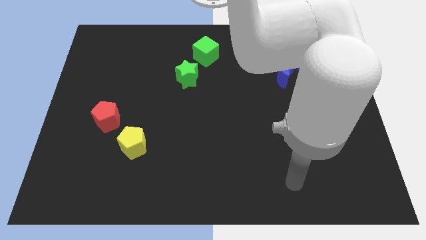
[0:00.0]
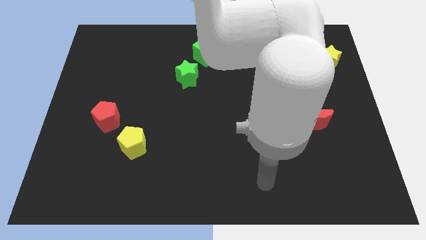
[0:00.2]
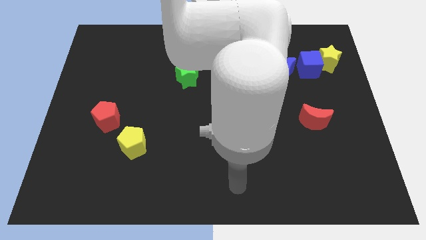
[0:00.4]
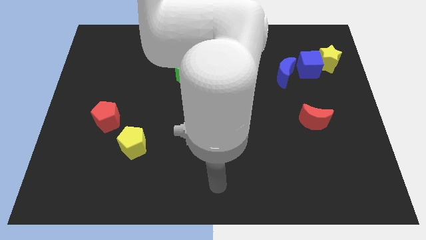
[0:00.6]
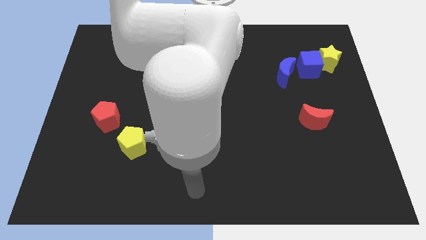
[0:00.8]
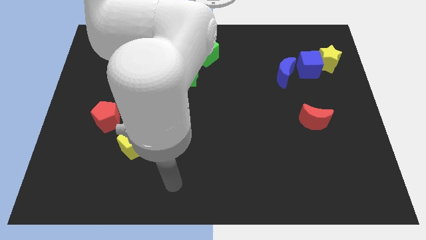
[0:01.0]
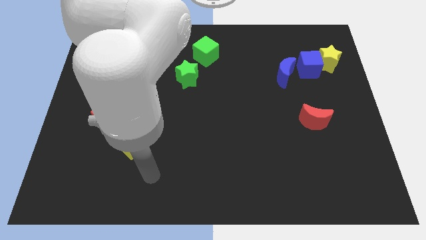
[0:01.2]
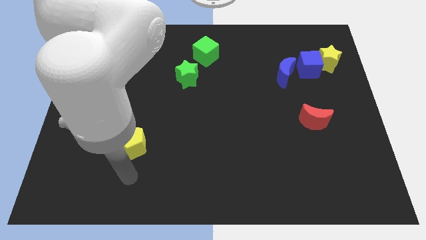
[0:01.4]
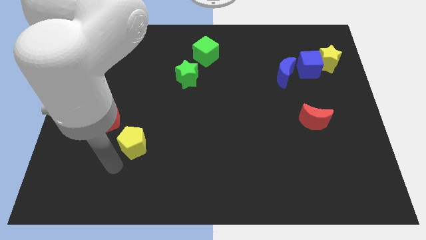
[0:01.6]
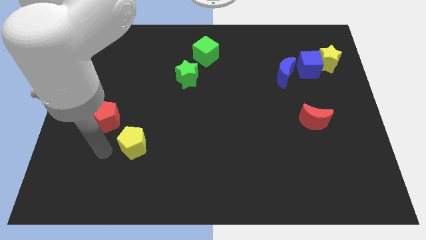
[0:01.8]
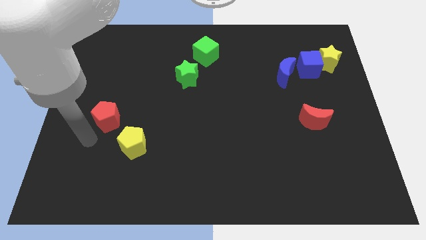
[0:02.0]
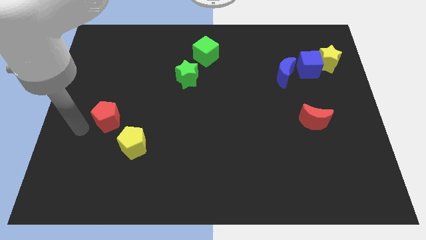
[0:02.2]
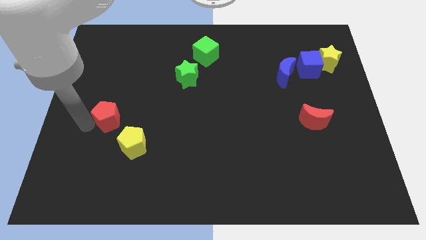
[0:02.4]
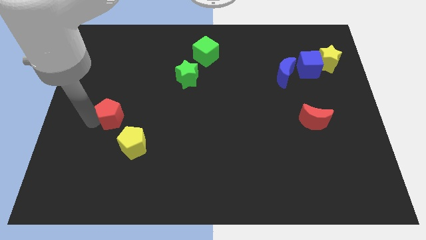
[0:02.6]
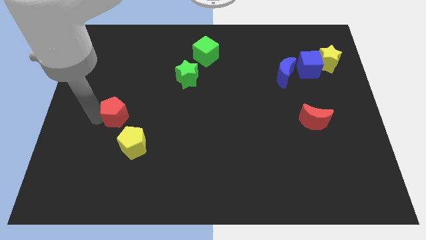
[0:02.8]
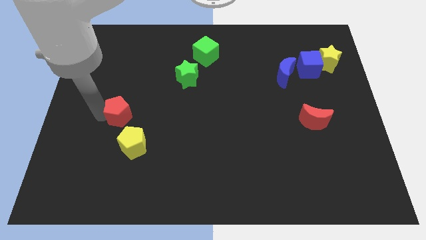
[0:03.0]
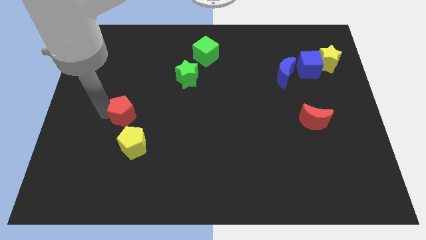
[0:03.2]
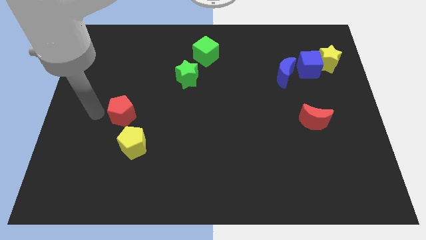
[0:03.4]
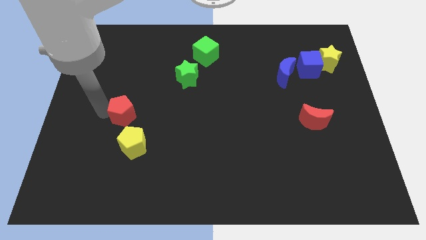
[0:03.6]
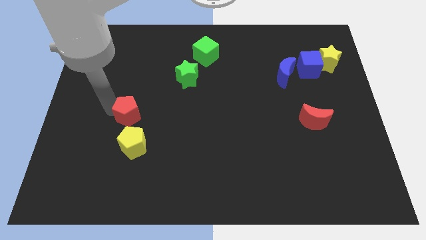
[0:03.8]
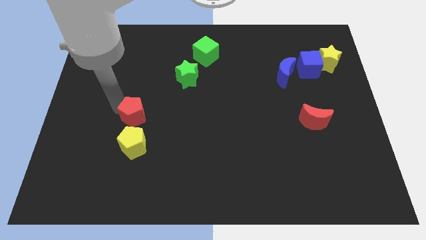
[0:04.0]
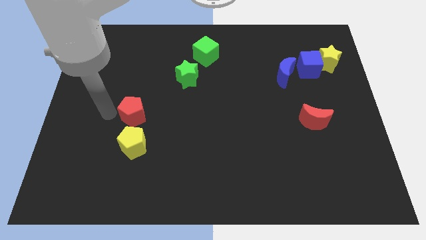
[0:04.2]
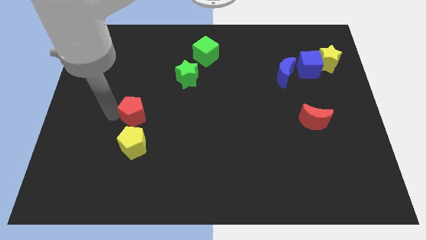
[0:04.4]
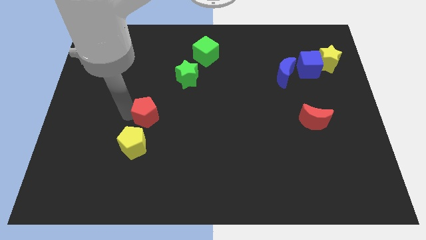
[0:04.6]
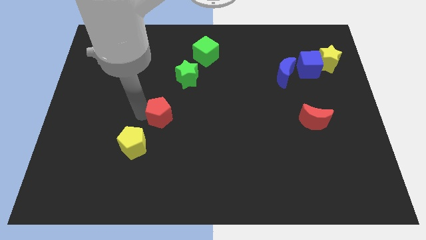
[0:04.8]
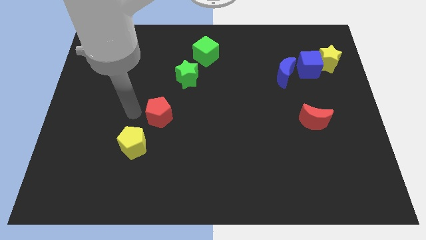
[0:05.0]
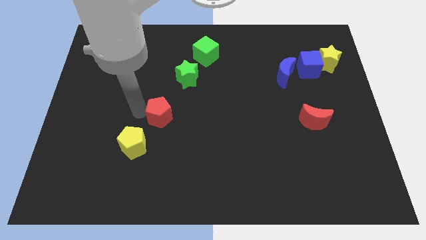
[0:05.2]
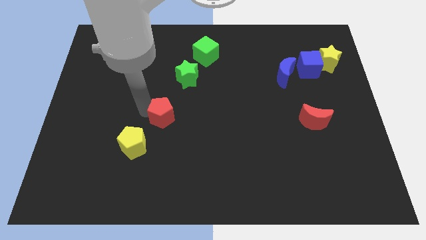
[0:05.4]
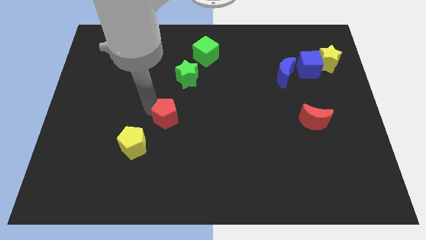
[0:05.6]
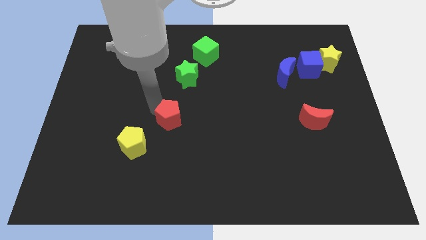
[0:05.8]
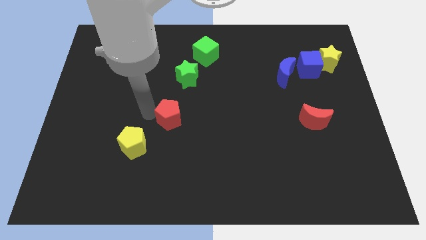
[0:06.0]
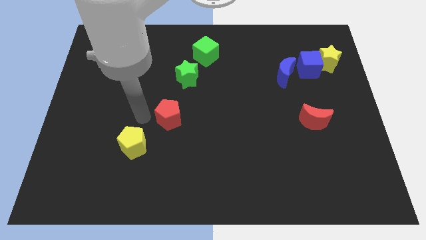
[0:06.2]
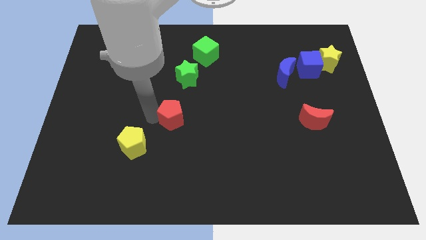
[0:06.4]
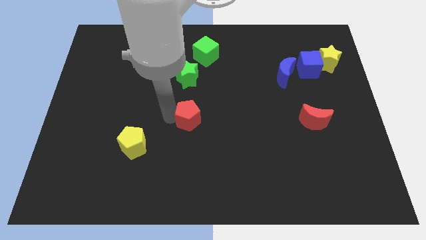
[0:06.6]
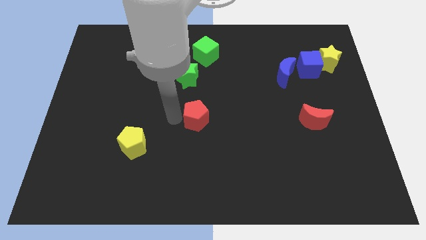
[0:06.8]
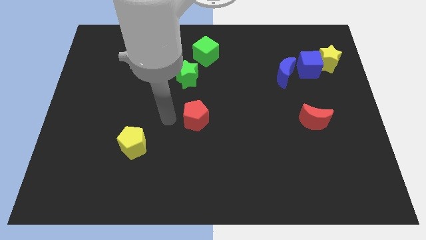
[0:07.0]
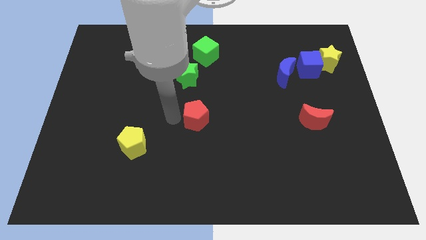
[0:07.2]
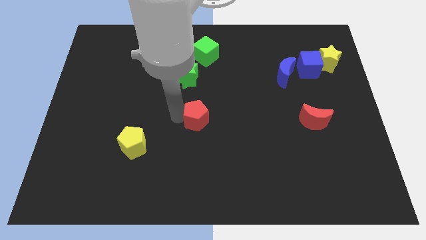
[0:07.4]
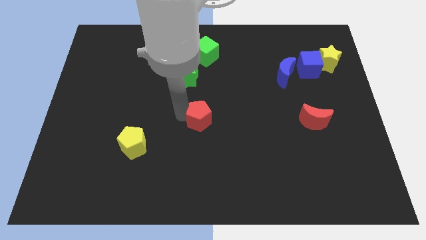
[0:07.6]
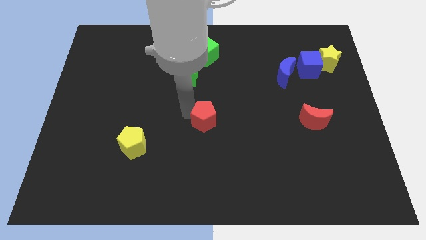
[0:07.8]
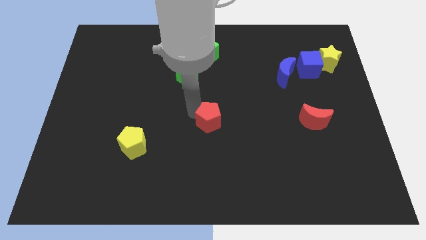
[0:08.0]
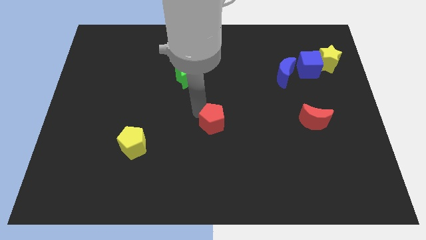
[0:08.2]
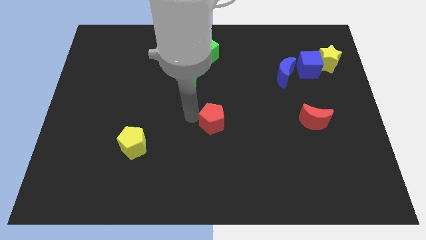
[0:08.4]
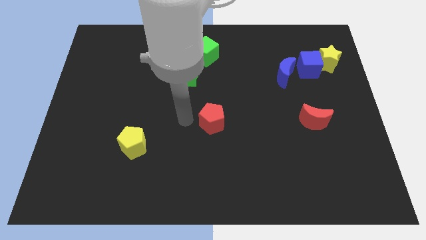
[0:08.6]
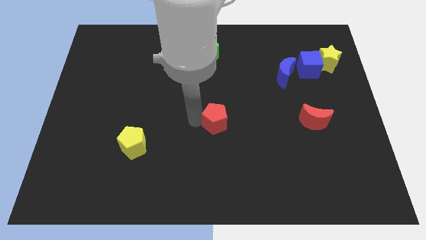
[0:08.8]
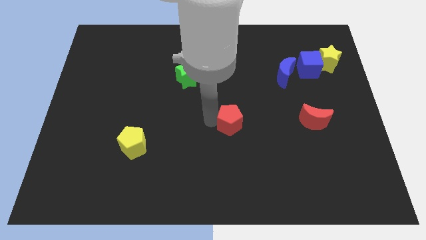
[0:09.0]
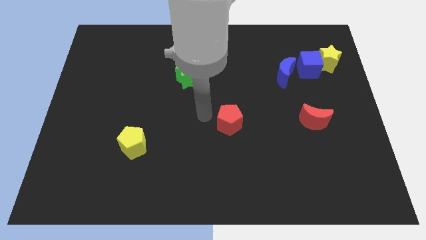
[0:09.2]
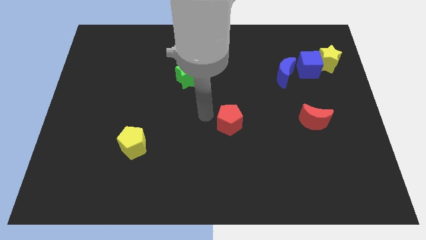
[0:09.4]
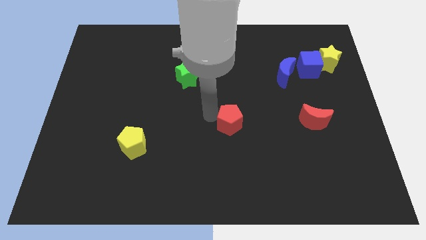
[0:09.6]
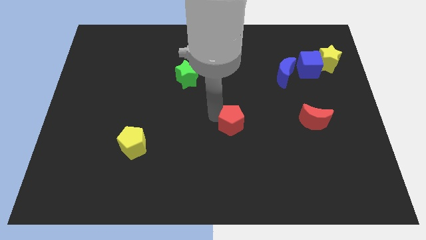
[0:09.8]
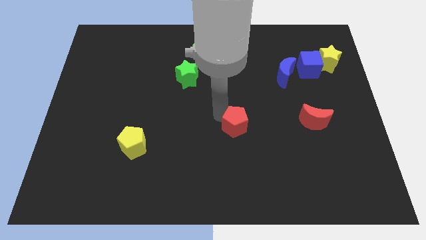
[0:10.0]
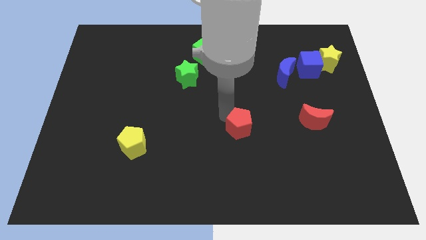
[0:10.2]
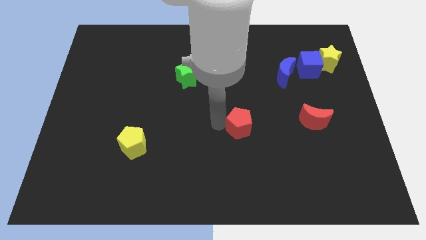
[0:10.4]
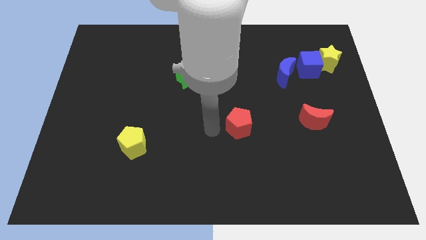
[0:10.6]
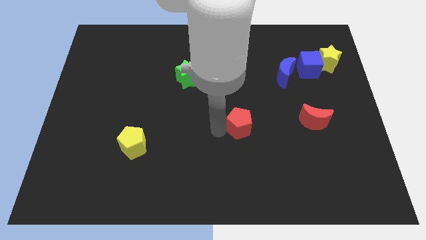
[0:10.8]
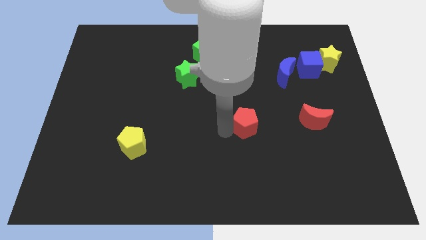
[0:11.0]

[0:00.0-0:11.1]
put the red pentagon to the left side of the red moon

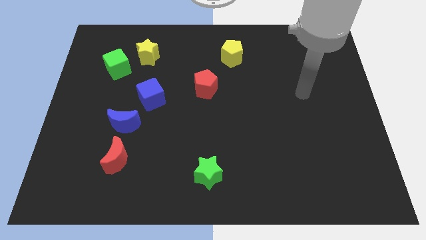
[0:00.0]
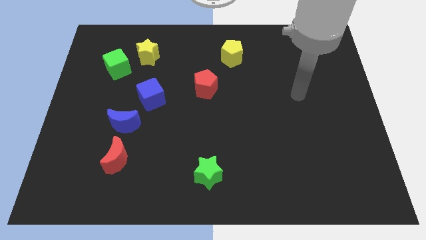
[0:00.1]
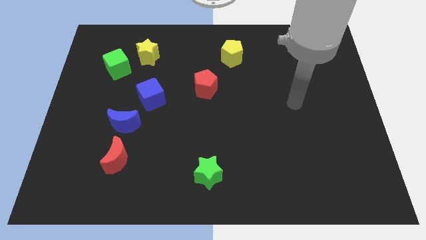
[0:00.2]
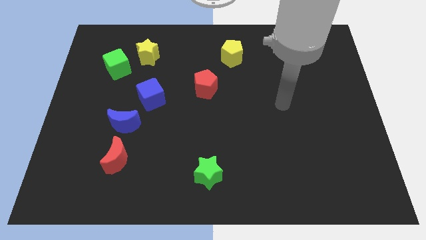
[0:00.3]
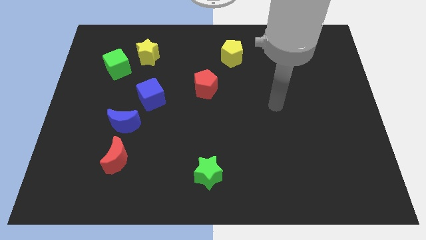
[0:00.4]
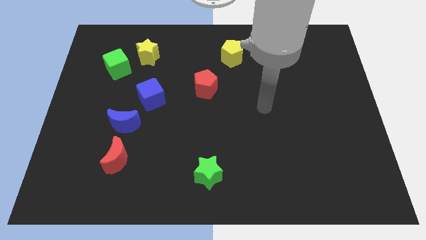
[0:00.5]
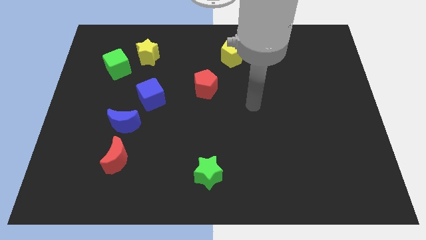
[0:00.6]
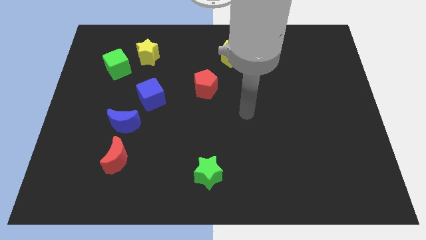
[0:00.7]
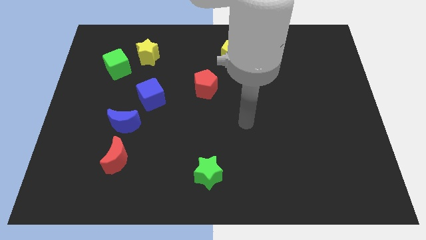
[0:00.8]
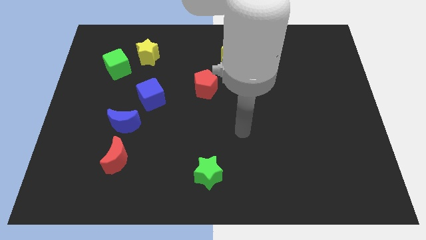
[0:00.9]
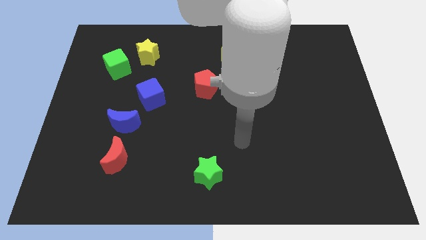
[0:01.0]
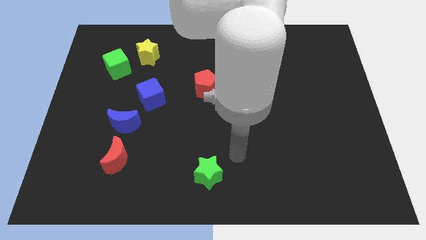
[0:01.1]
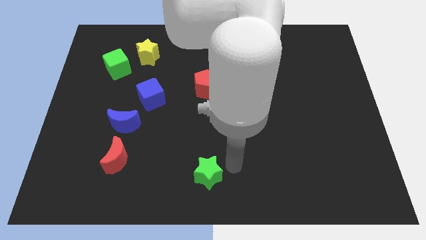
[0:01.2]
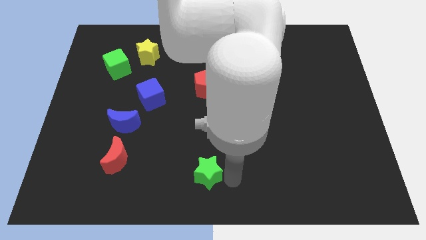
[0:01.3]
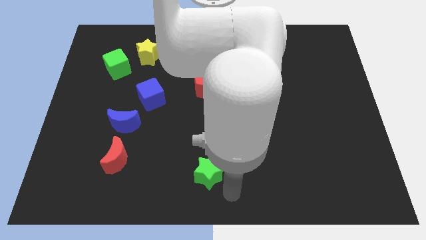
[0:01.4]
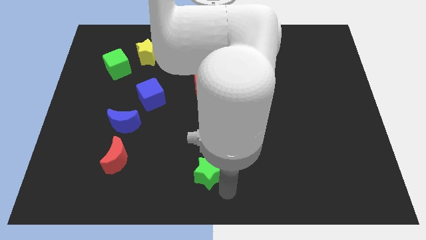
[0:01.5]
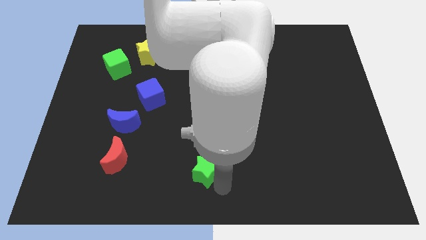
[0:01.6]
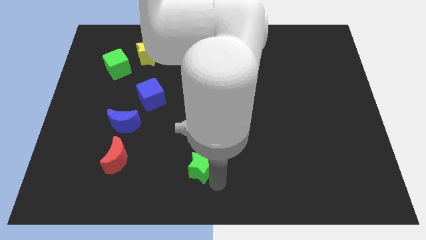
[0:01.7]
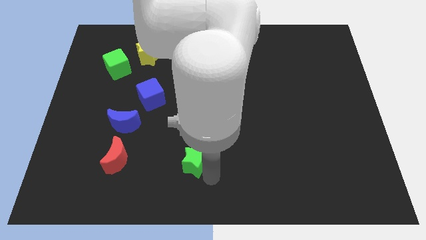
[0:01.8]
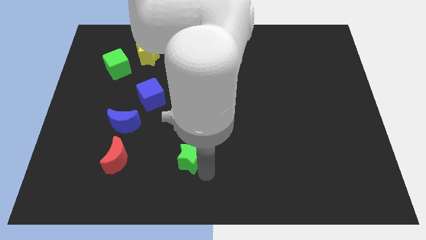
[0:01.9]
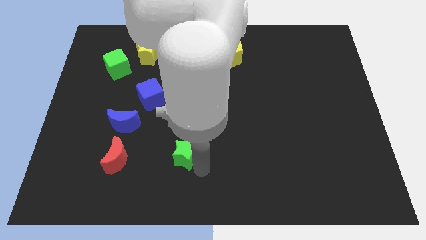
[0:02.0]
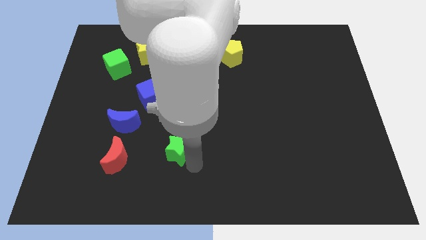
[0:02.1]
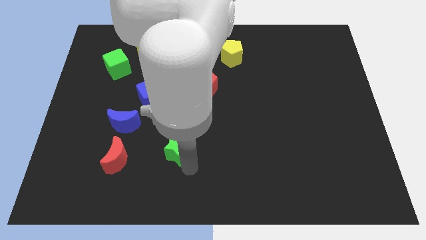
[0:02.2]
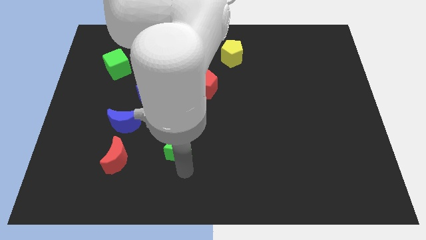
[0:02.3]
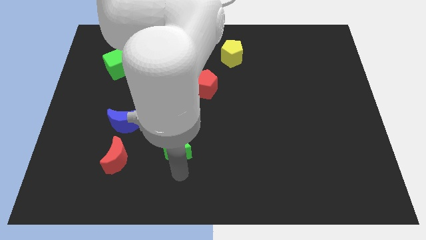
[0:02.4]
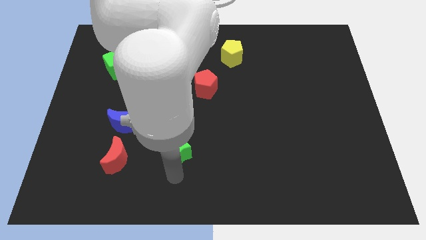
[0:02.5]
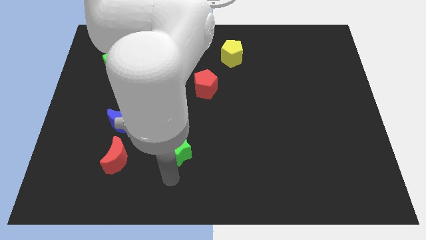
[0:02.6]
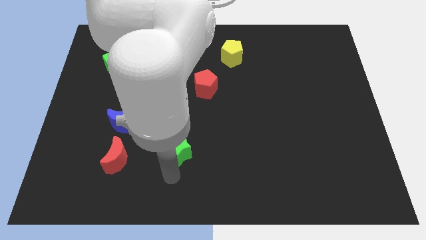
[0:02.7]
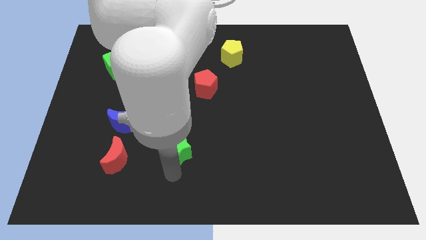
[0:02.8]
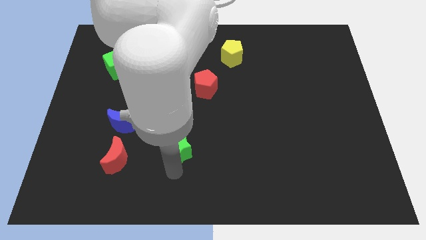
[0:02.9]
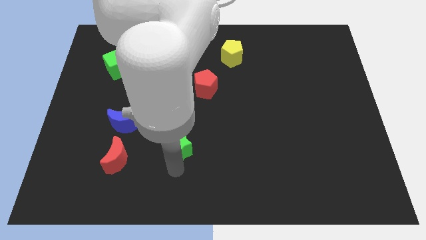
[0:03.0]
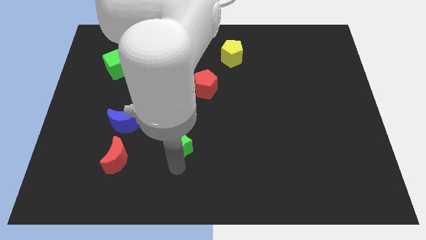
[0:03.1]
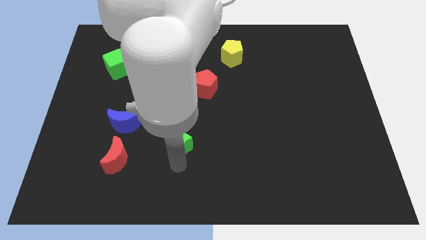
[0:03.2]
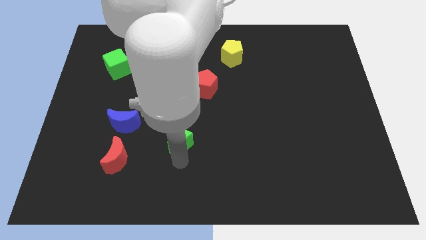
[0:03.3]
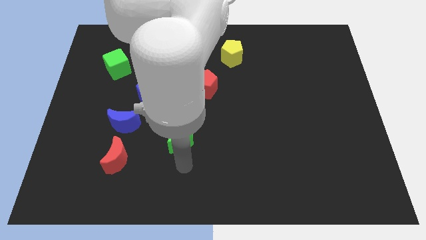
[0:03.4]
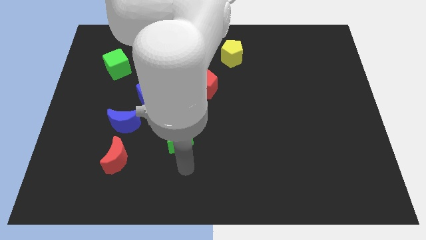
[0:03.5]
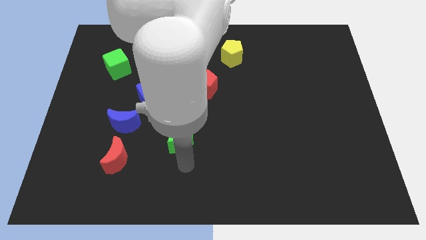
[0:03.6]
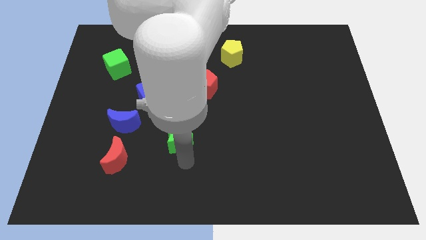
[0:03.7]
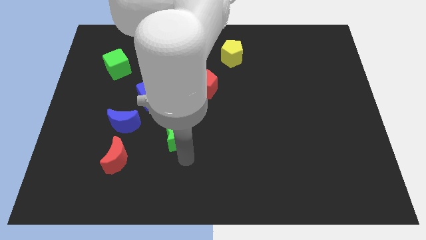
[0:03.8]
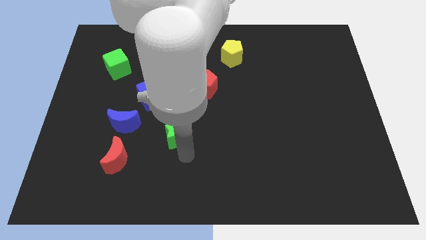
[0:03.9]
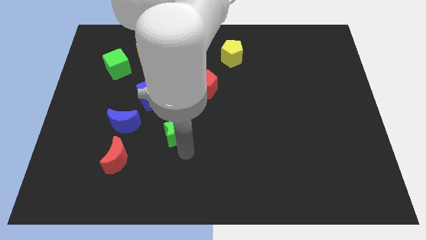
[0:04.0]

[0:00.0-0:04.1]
put the green star to the bottom right of the blue cube
